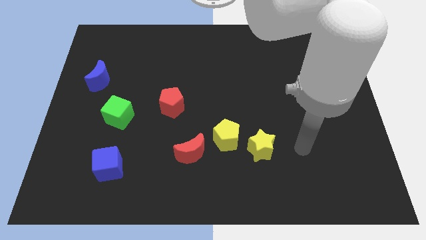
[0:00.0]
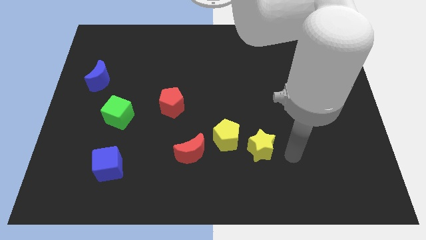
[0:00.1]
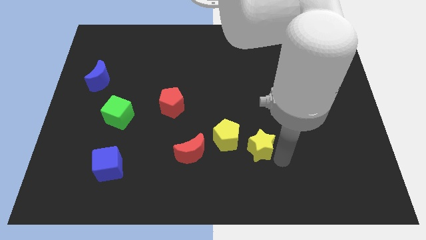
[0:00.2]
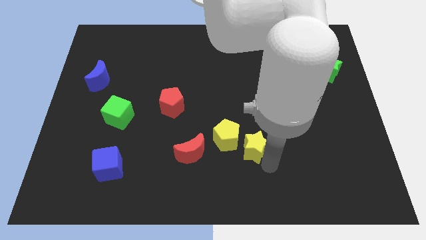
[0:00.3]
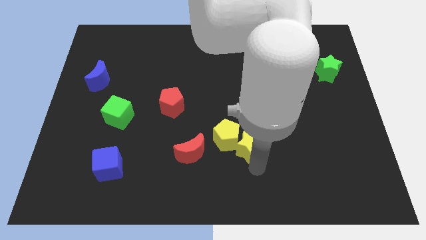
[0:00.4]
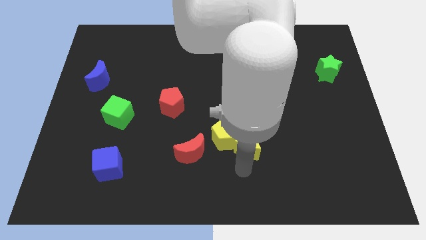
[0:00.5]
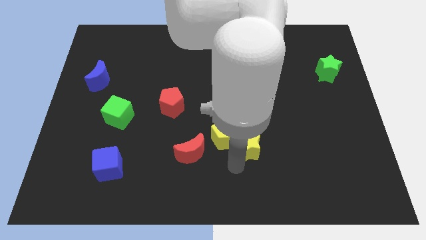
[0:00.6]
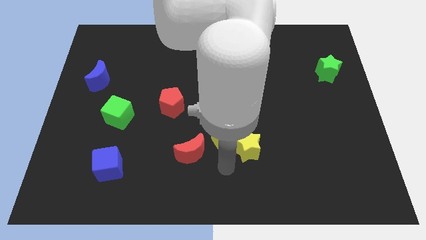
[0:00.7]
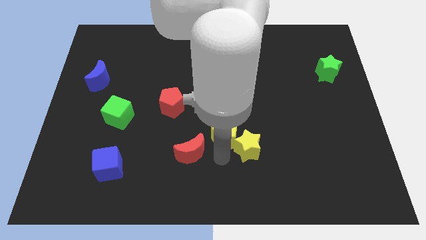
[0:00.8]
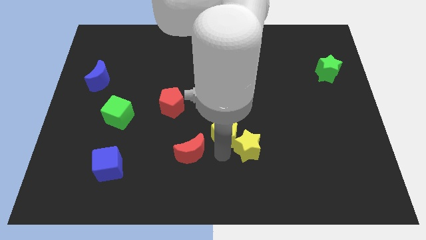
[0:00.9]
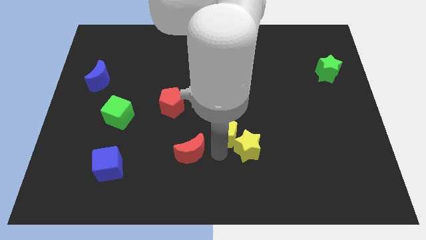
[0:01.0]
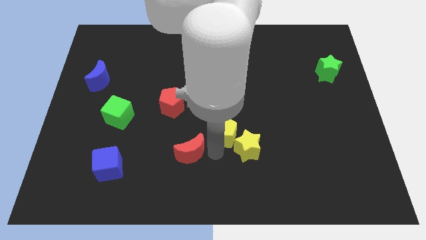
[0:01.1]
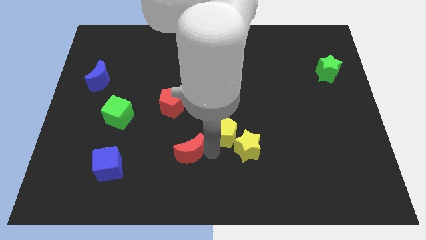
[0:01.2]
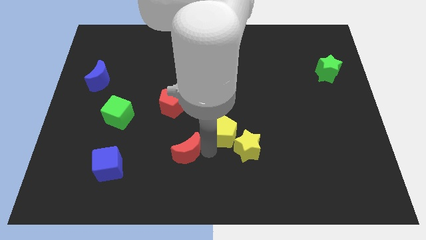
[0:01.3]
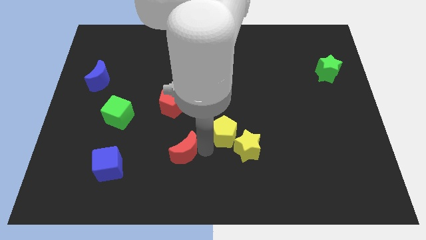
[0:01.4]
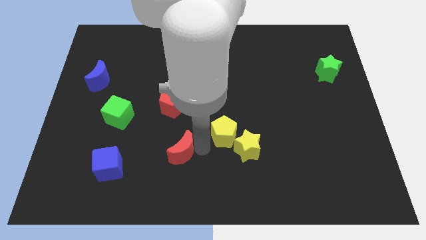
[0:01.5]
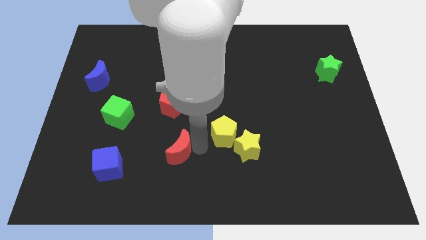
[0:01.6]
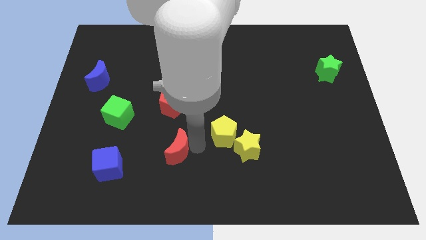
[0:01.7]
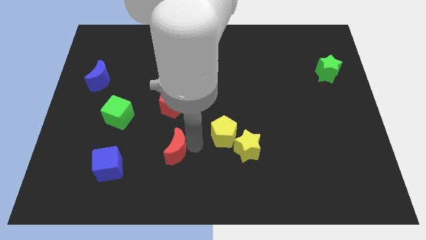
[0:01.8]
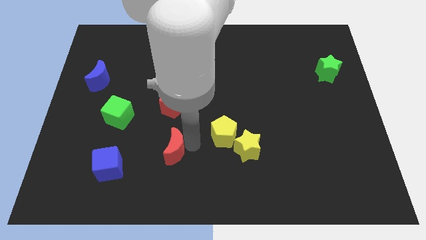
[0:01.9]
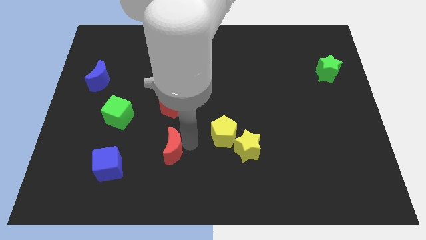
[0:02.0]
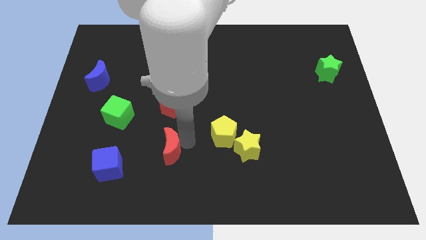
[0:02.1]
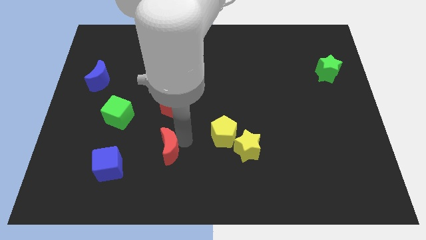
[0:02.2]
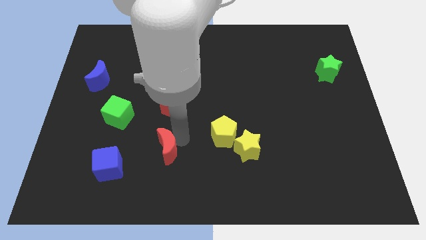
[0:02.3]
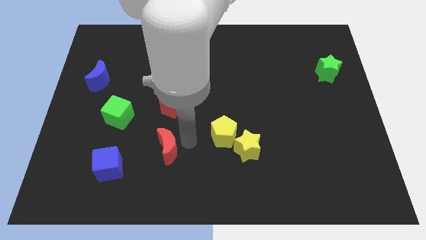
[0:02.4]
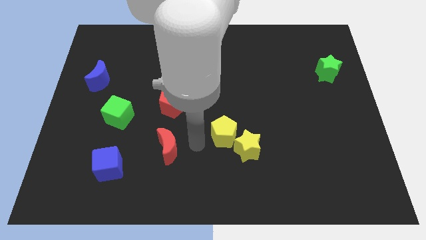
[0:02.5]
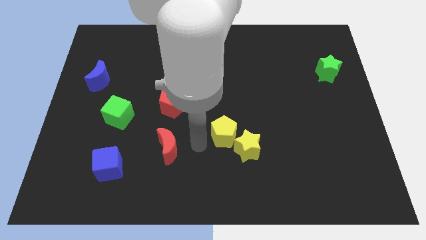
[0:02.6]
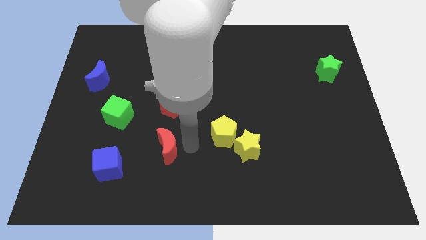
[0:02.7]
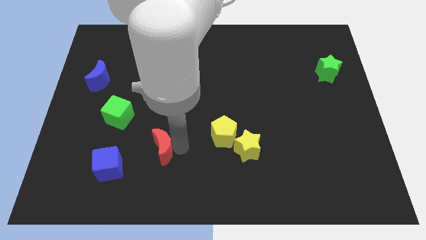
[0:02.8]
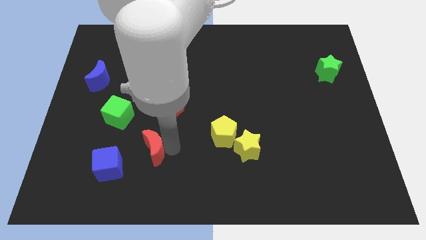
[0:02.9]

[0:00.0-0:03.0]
slide the red moon left a bit

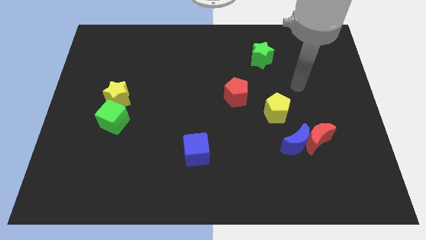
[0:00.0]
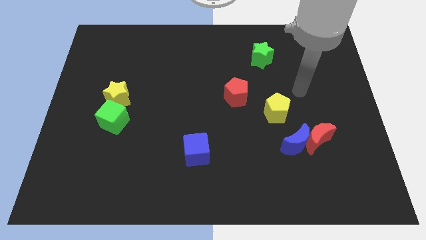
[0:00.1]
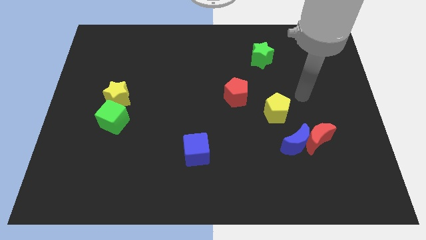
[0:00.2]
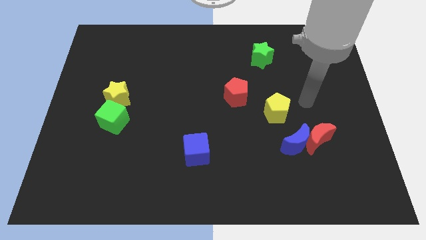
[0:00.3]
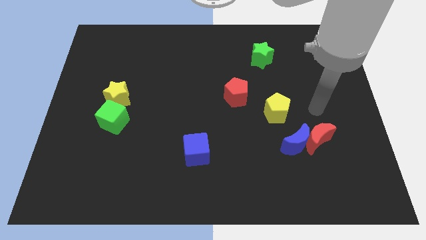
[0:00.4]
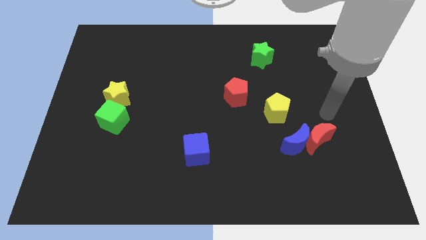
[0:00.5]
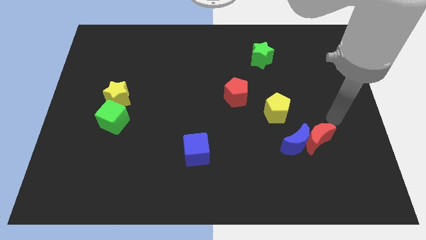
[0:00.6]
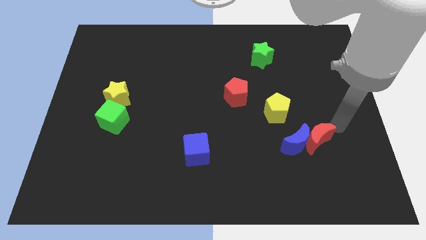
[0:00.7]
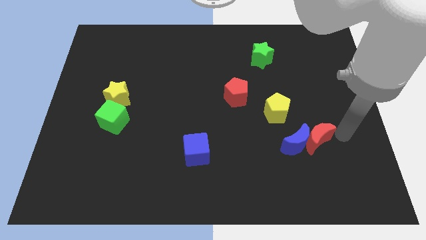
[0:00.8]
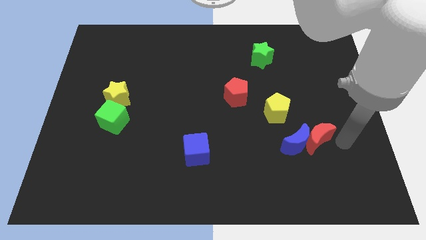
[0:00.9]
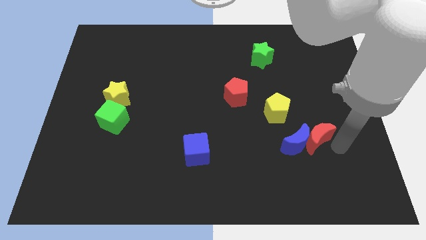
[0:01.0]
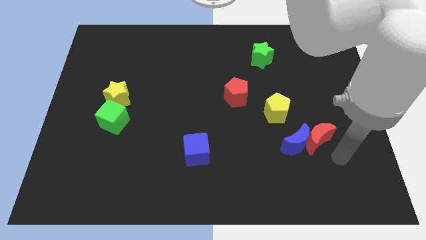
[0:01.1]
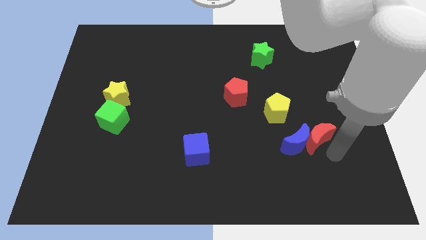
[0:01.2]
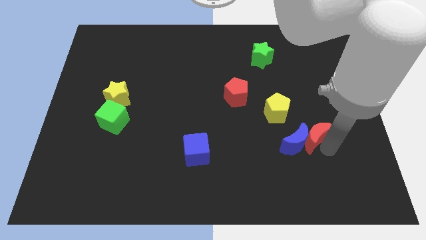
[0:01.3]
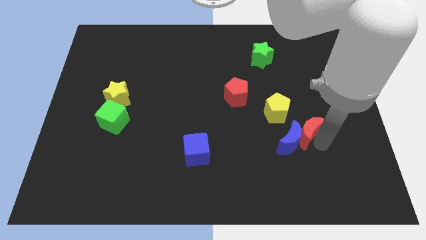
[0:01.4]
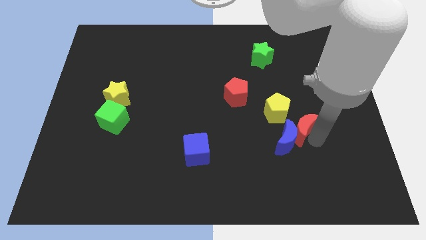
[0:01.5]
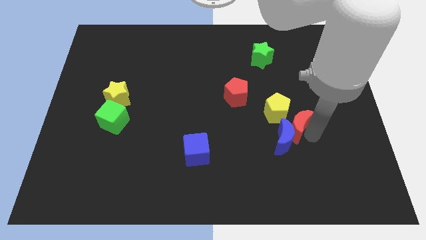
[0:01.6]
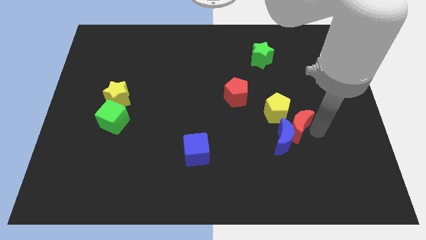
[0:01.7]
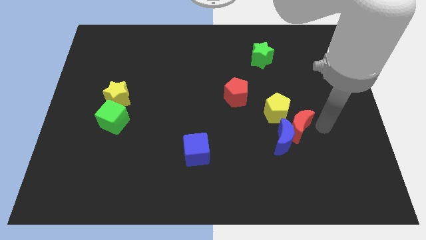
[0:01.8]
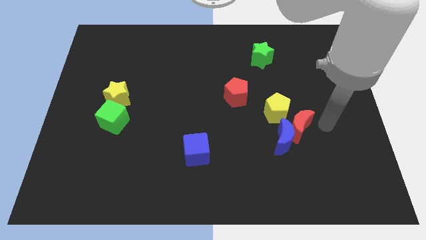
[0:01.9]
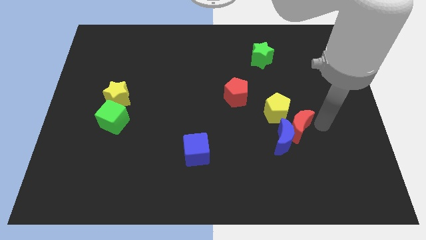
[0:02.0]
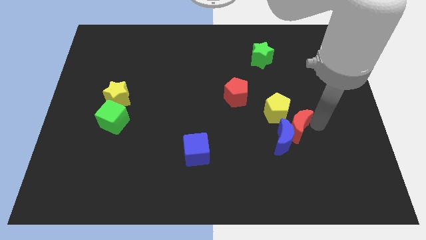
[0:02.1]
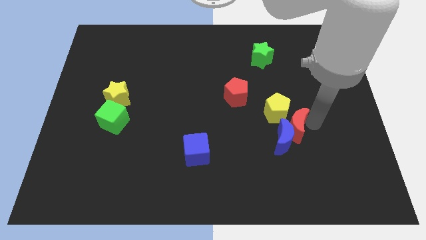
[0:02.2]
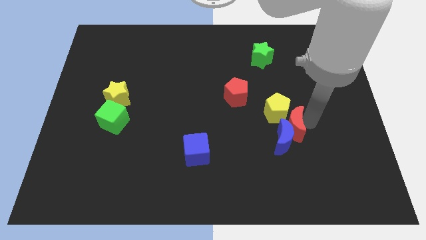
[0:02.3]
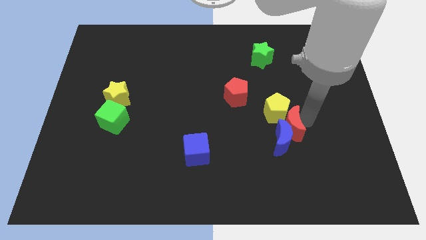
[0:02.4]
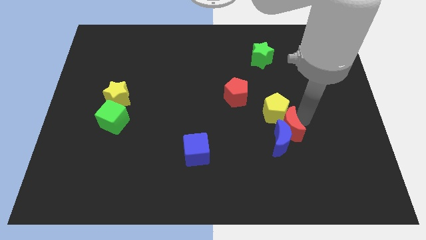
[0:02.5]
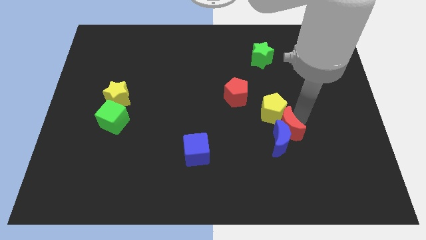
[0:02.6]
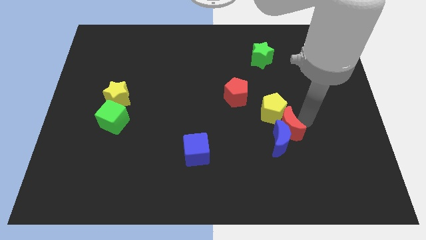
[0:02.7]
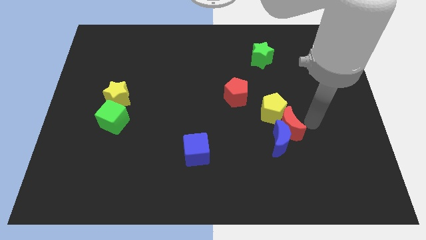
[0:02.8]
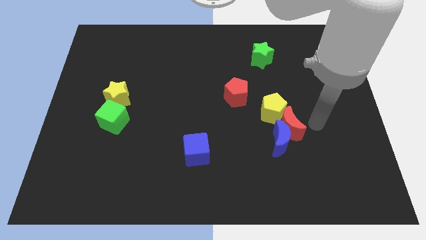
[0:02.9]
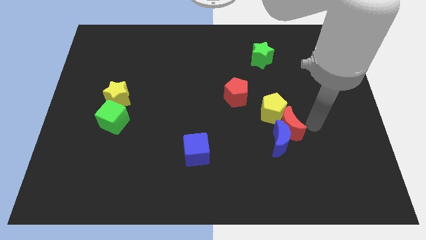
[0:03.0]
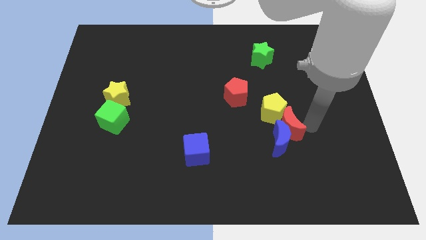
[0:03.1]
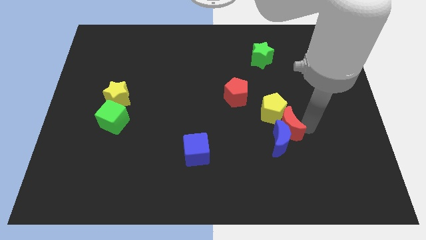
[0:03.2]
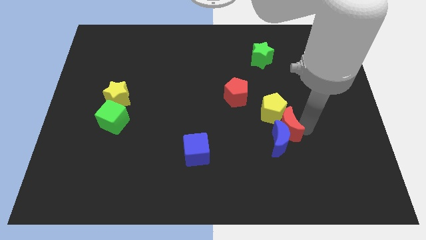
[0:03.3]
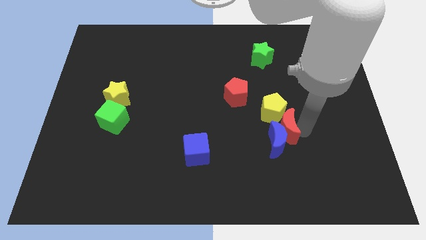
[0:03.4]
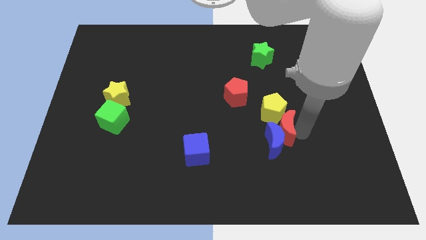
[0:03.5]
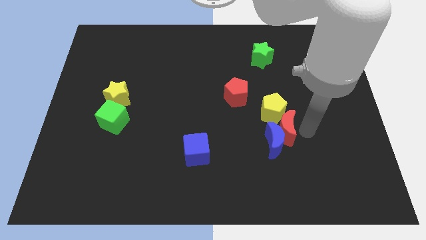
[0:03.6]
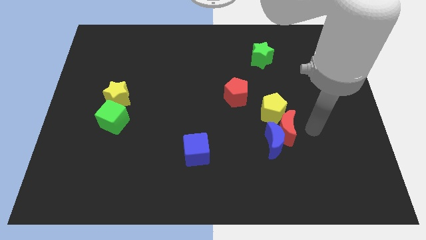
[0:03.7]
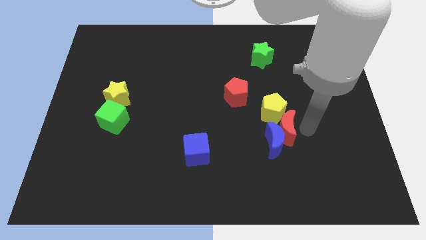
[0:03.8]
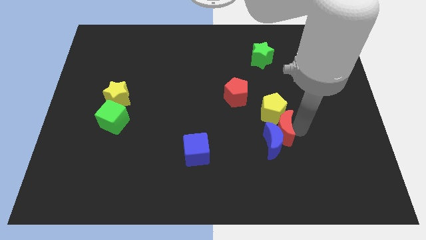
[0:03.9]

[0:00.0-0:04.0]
move the red moon left a bit

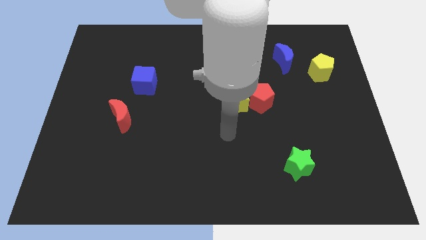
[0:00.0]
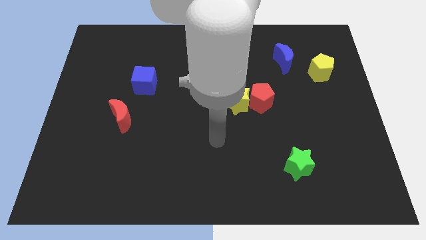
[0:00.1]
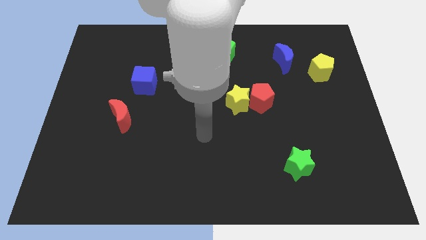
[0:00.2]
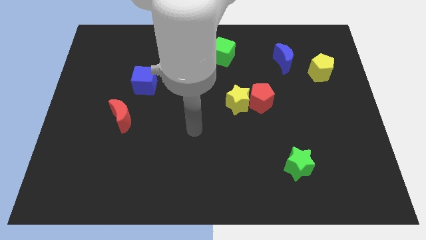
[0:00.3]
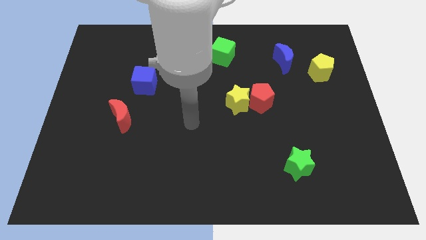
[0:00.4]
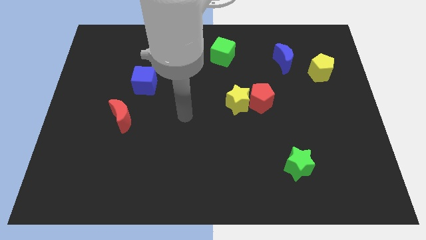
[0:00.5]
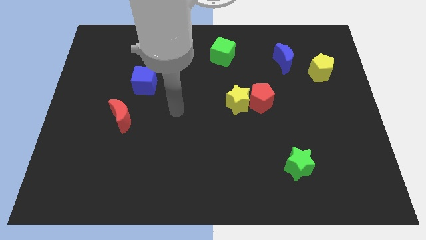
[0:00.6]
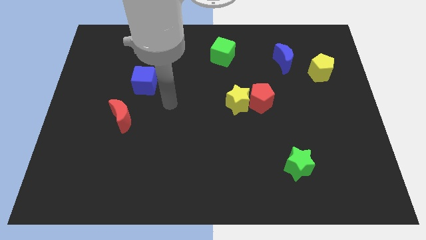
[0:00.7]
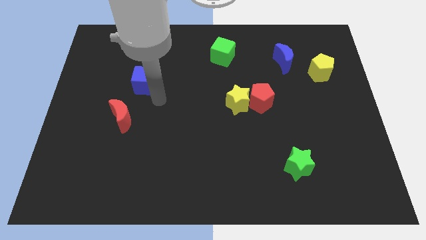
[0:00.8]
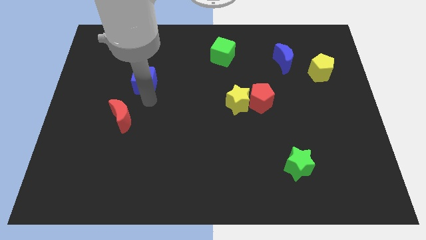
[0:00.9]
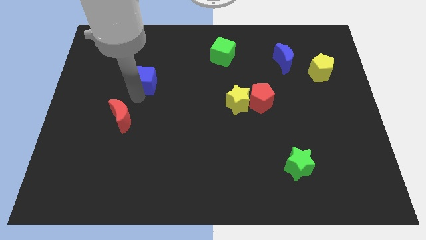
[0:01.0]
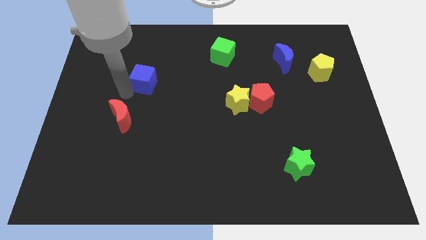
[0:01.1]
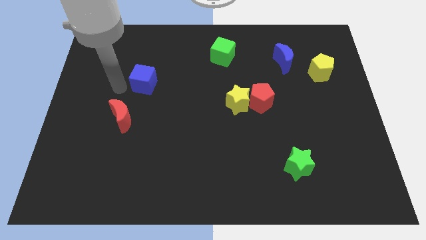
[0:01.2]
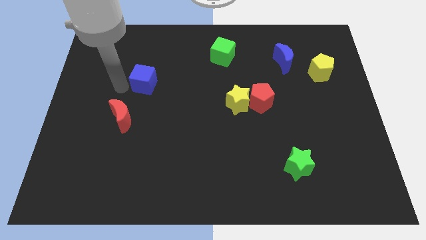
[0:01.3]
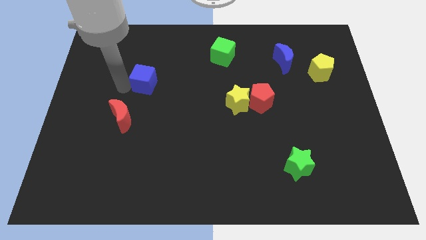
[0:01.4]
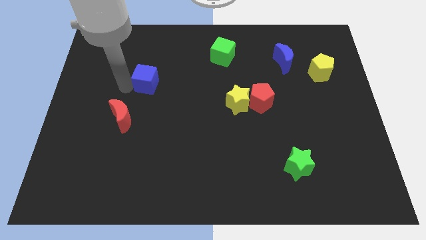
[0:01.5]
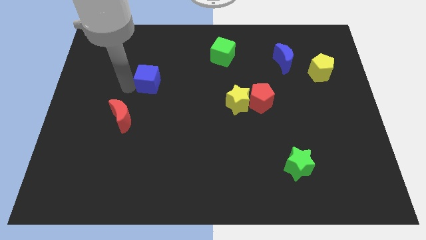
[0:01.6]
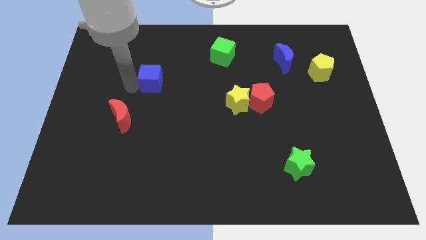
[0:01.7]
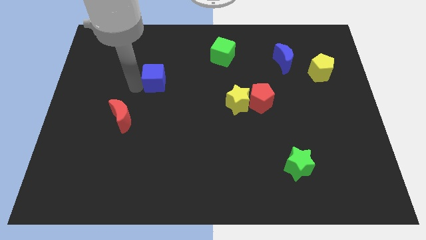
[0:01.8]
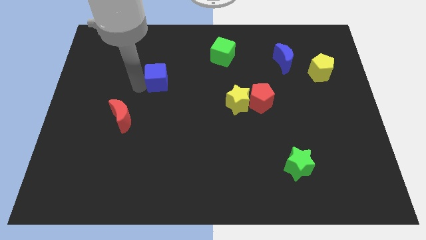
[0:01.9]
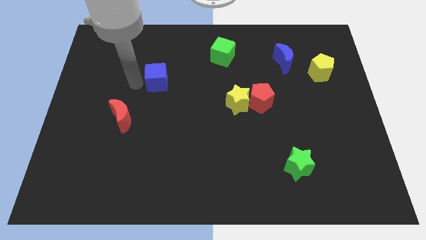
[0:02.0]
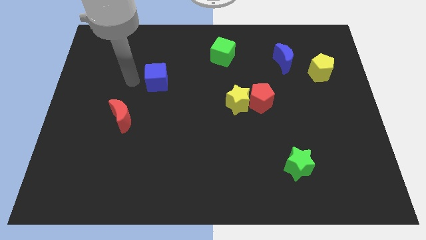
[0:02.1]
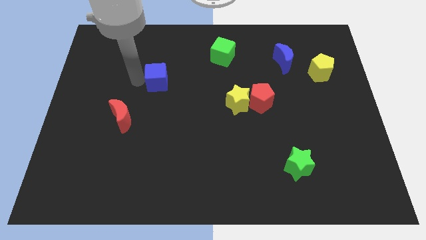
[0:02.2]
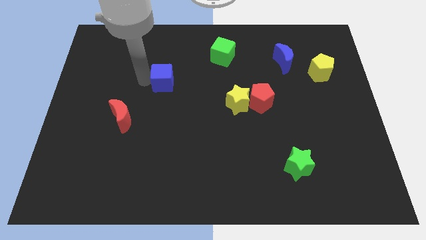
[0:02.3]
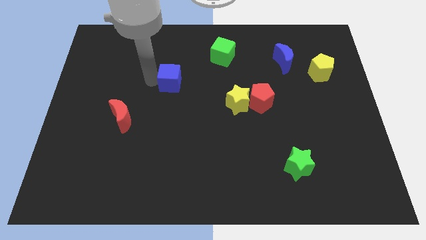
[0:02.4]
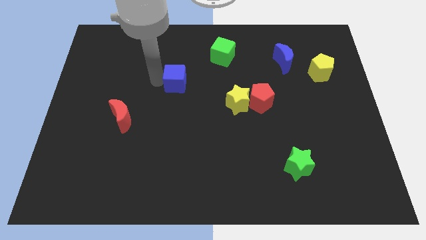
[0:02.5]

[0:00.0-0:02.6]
slide the blue cube right somewhat
